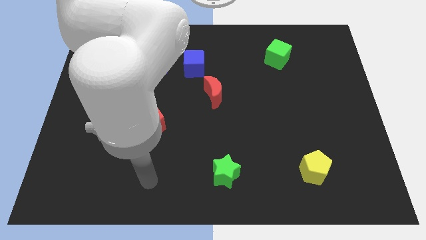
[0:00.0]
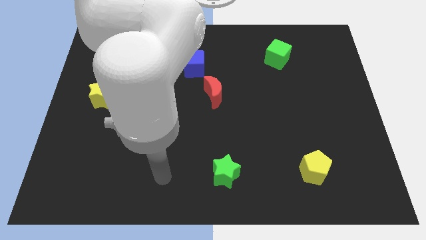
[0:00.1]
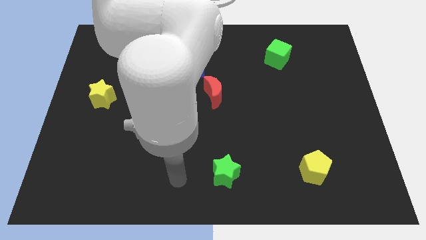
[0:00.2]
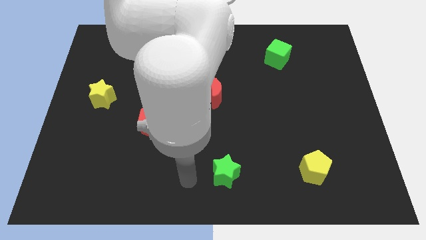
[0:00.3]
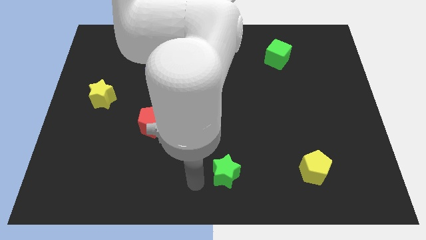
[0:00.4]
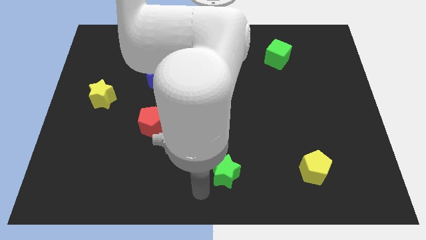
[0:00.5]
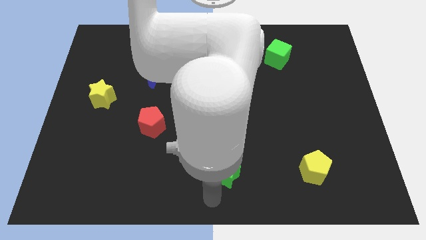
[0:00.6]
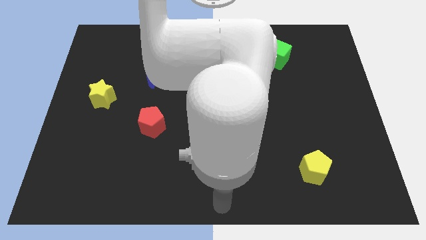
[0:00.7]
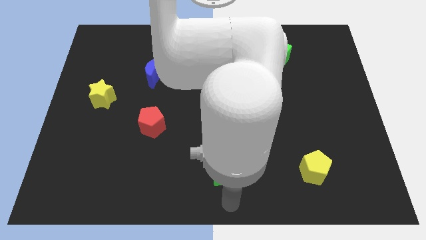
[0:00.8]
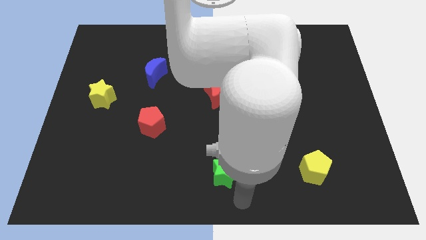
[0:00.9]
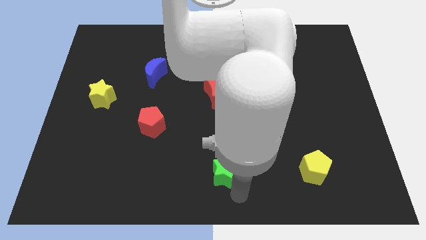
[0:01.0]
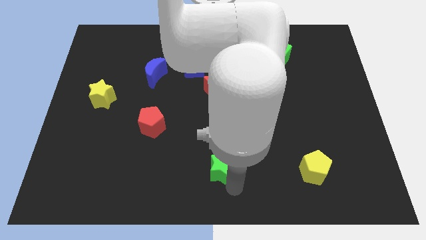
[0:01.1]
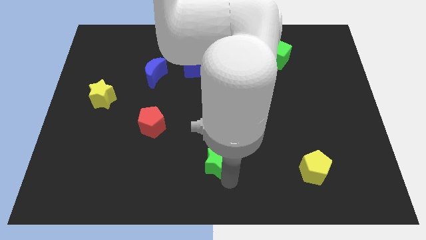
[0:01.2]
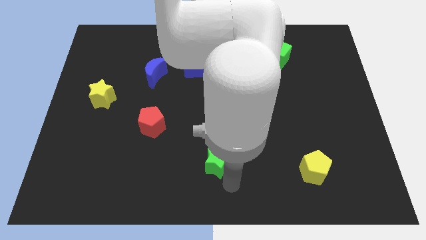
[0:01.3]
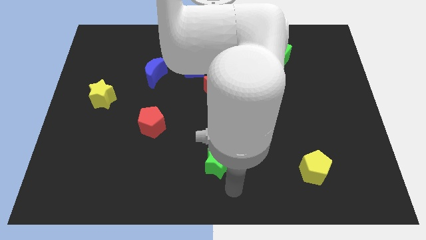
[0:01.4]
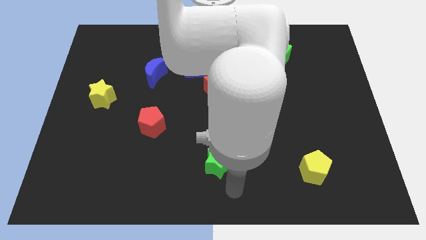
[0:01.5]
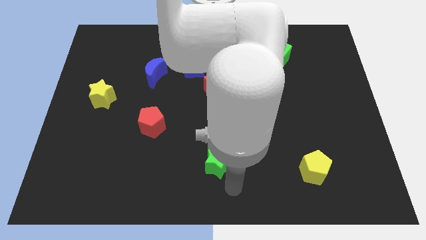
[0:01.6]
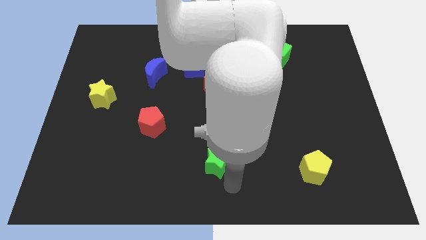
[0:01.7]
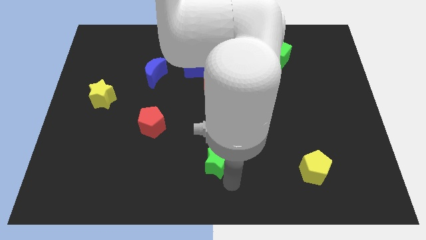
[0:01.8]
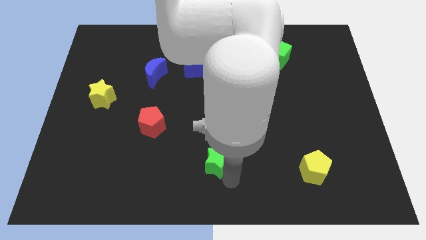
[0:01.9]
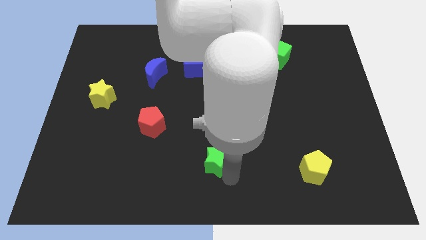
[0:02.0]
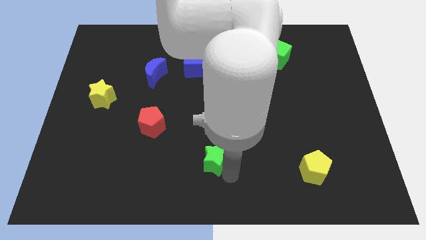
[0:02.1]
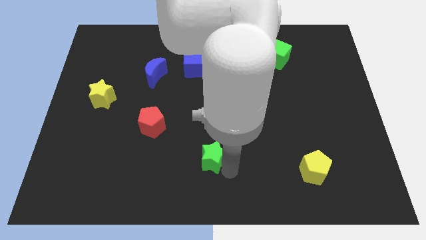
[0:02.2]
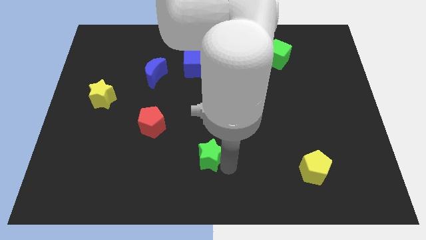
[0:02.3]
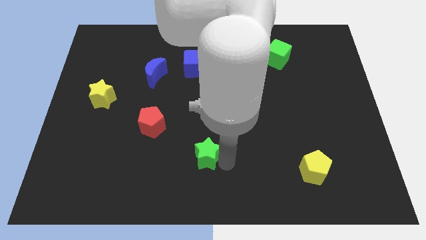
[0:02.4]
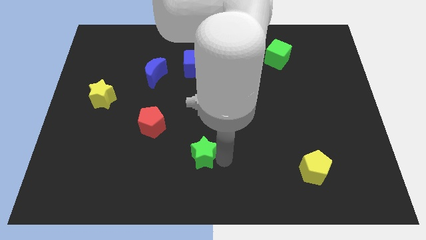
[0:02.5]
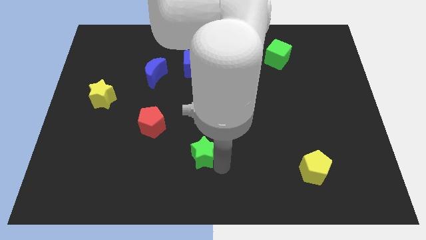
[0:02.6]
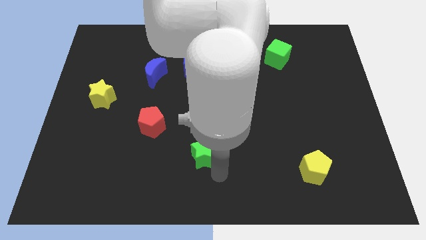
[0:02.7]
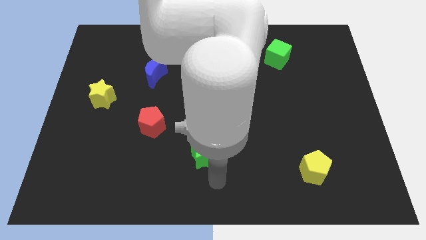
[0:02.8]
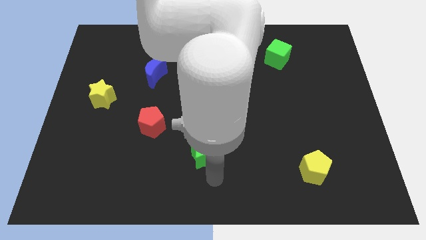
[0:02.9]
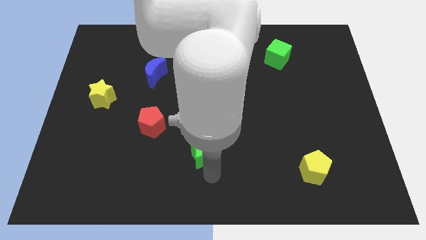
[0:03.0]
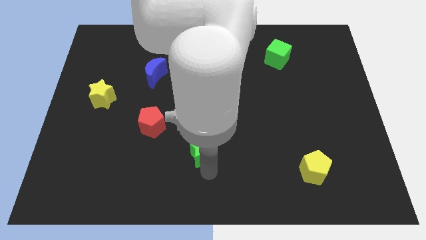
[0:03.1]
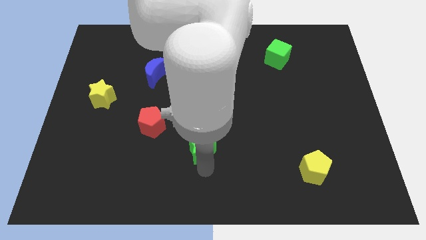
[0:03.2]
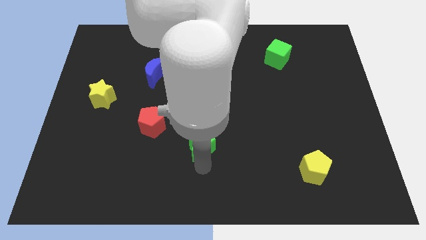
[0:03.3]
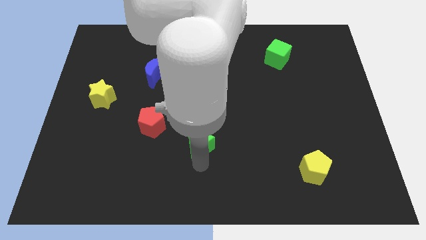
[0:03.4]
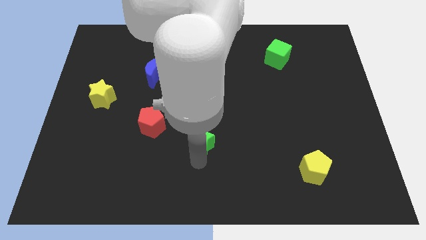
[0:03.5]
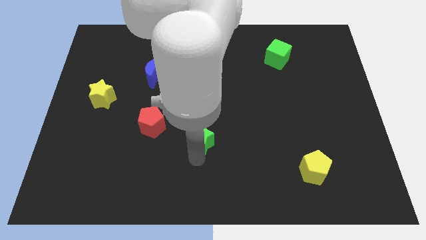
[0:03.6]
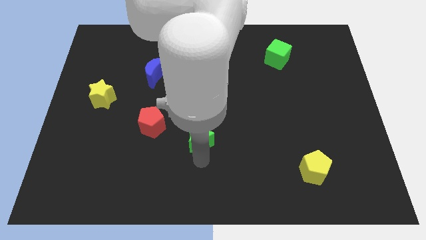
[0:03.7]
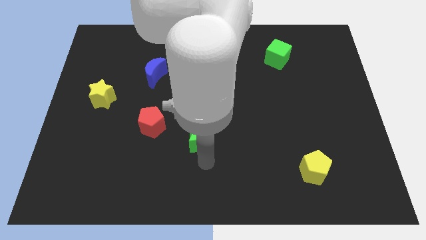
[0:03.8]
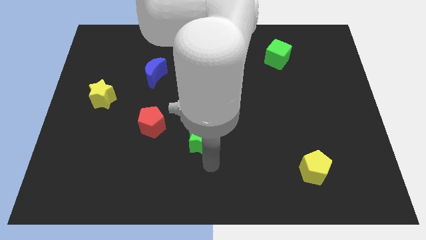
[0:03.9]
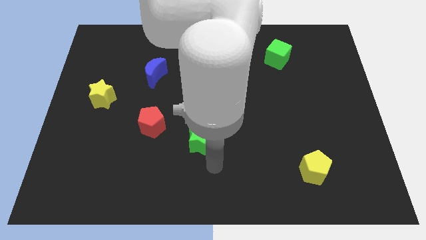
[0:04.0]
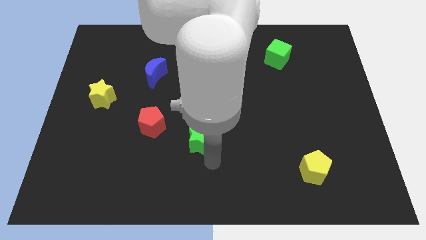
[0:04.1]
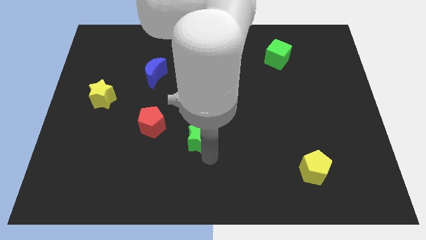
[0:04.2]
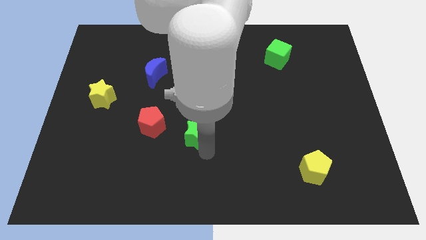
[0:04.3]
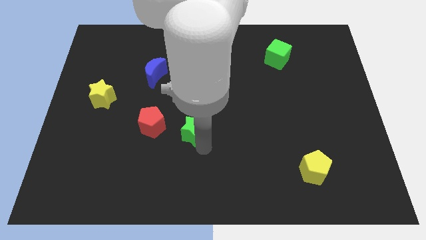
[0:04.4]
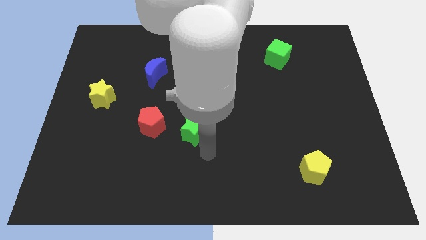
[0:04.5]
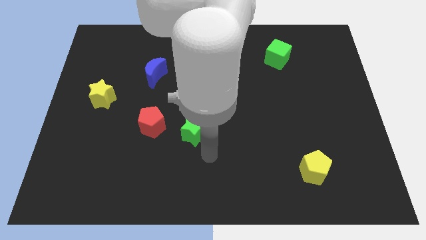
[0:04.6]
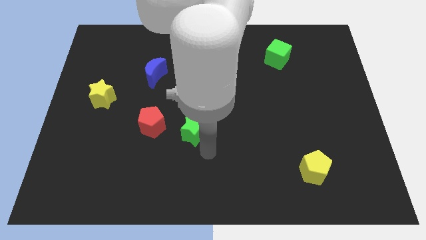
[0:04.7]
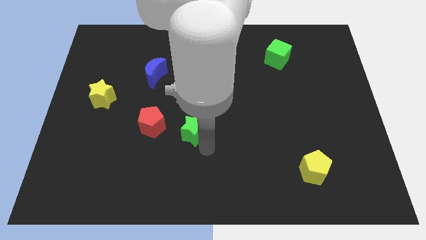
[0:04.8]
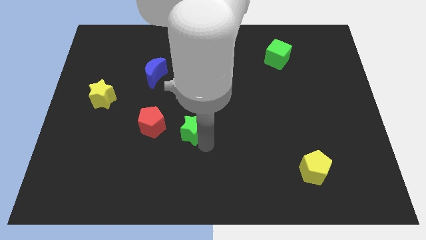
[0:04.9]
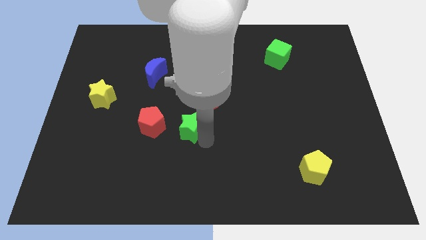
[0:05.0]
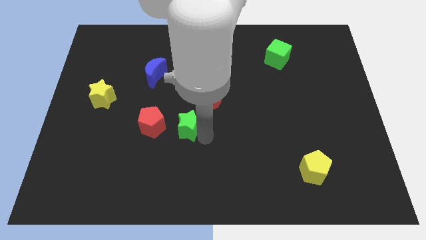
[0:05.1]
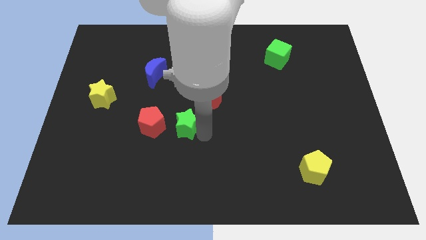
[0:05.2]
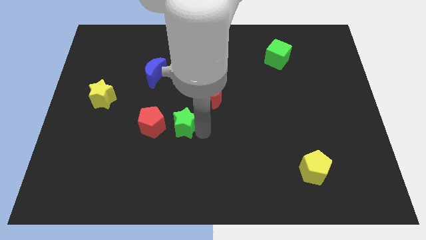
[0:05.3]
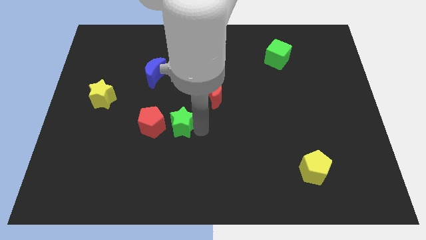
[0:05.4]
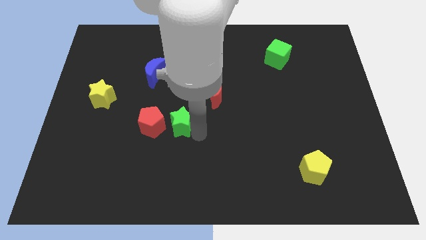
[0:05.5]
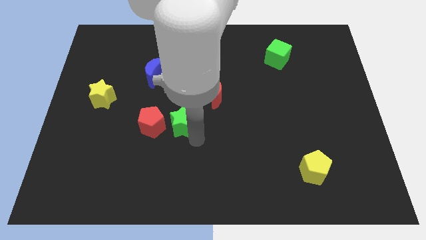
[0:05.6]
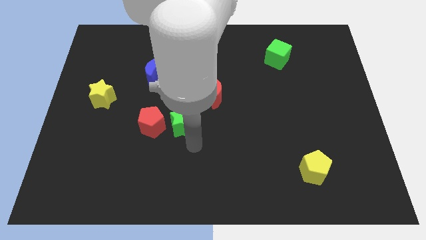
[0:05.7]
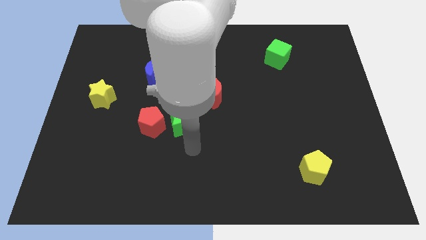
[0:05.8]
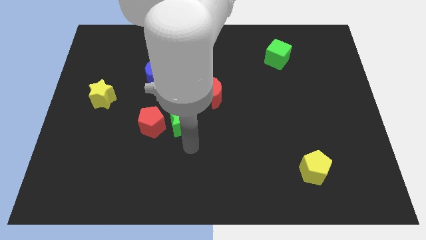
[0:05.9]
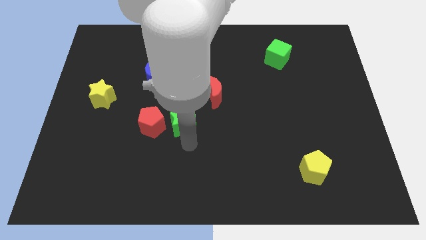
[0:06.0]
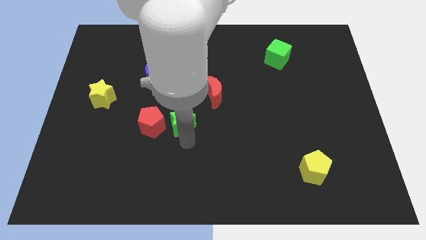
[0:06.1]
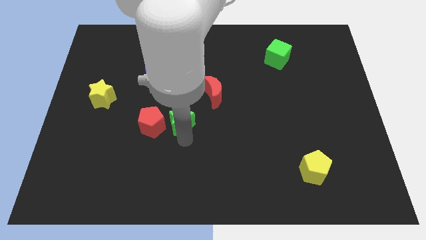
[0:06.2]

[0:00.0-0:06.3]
slide the green star to the top right of the red pentagon

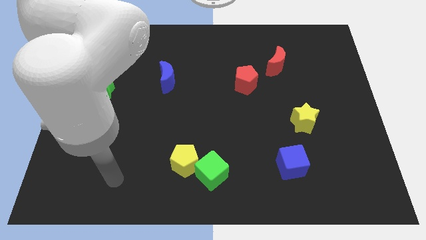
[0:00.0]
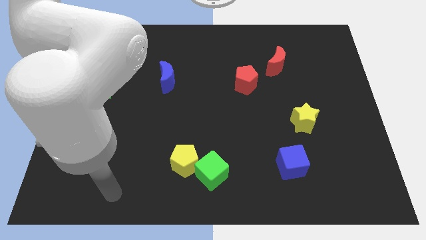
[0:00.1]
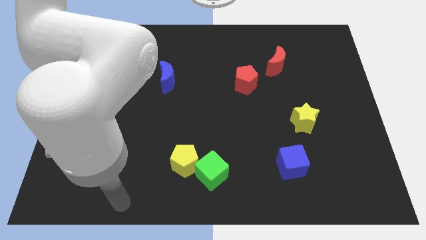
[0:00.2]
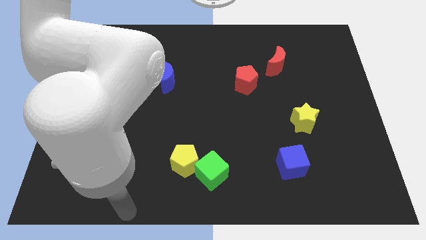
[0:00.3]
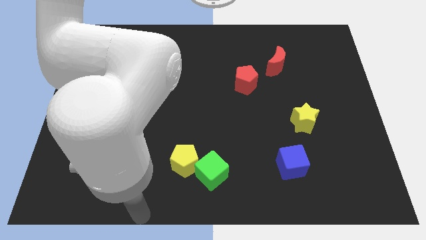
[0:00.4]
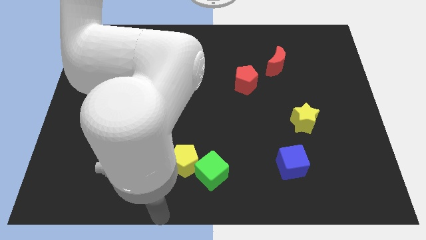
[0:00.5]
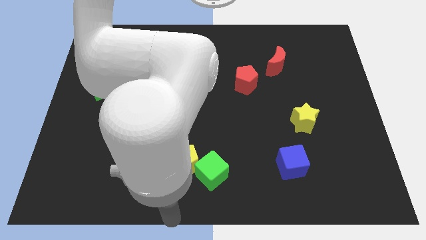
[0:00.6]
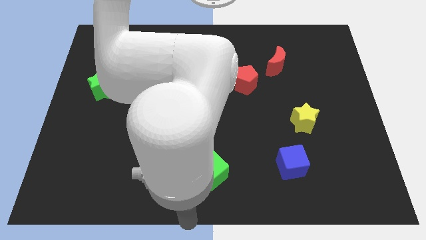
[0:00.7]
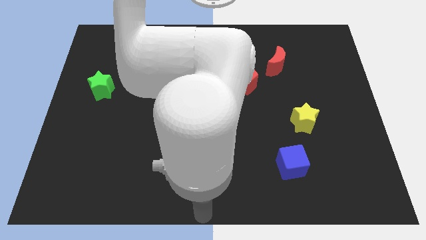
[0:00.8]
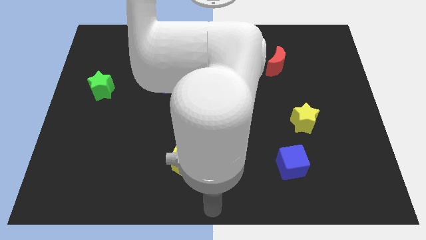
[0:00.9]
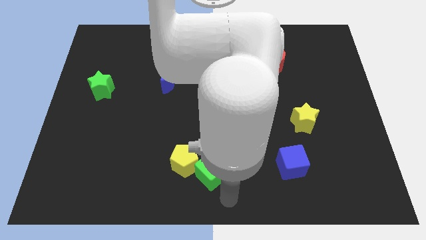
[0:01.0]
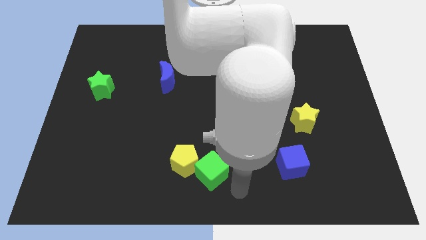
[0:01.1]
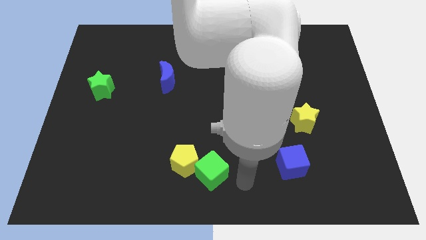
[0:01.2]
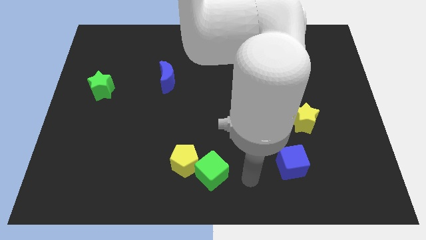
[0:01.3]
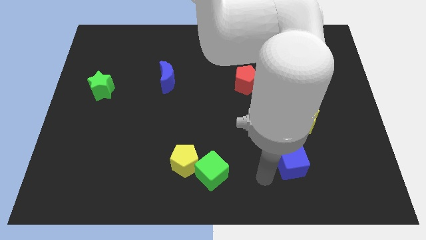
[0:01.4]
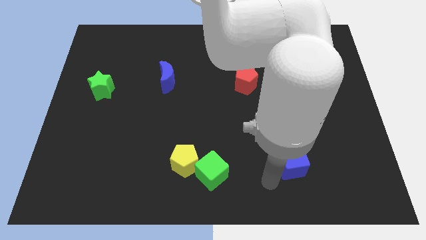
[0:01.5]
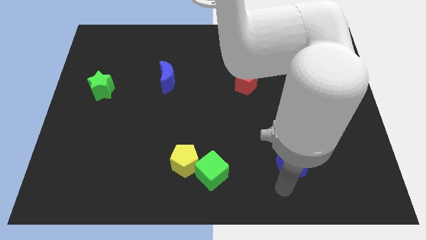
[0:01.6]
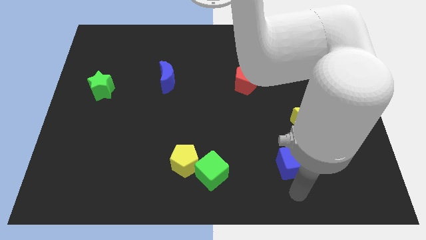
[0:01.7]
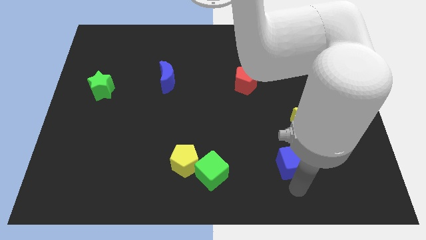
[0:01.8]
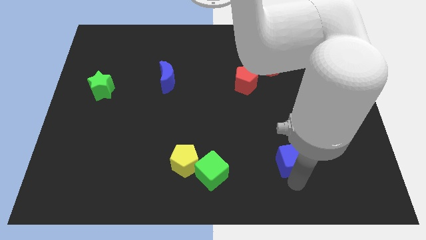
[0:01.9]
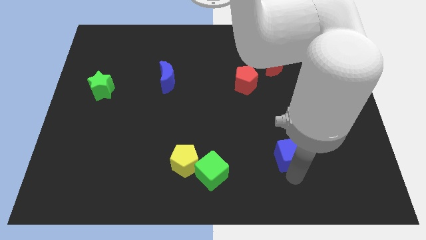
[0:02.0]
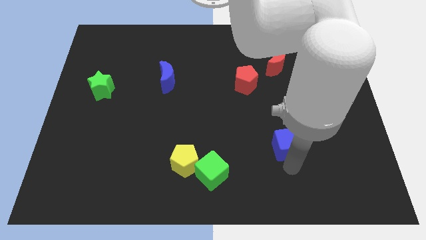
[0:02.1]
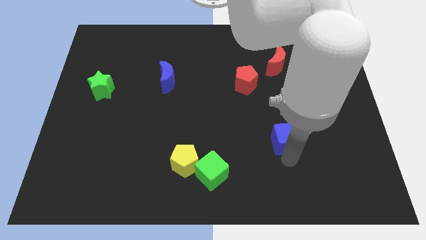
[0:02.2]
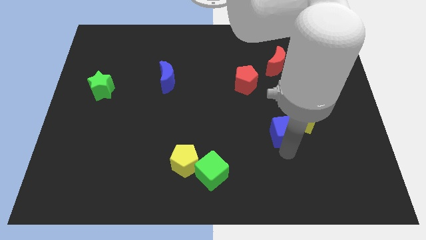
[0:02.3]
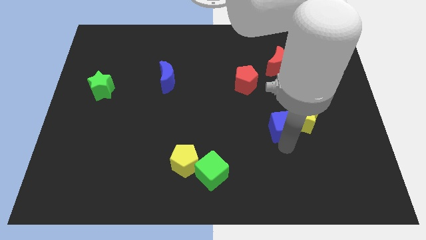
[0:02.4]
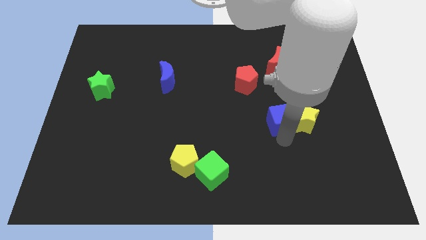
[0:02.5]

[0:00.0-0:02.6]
put the blue cube diagonally up and to the left of the yellow star
